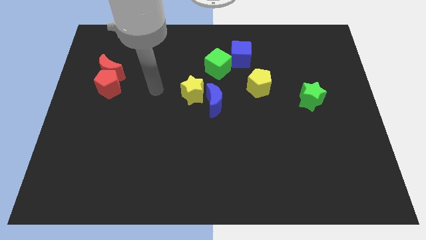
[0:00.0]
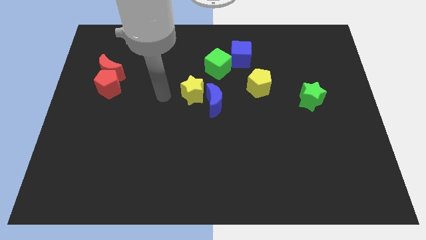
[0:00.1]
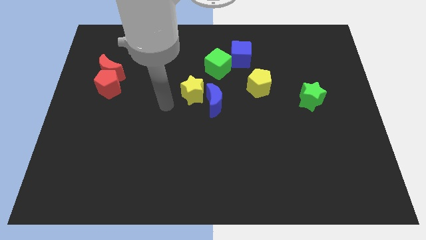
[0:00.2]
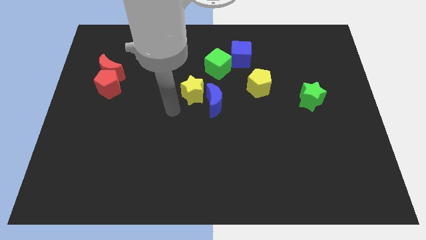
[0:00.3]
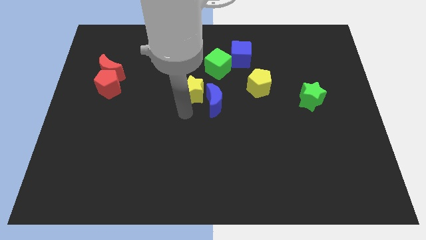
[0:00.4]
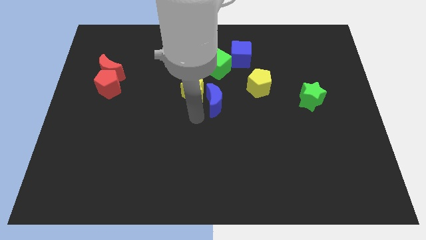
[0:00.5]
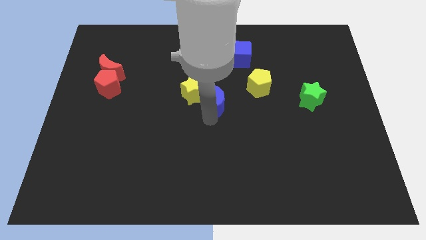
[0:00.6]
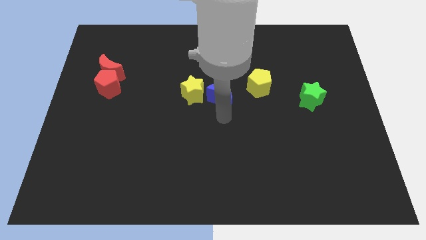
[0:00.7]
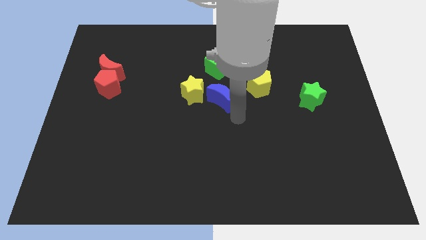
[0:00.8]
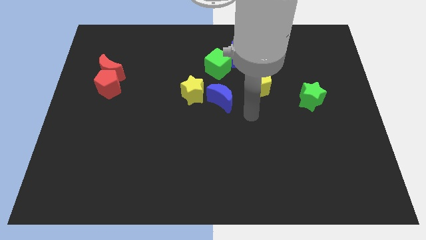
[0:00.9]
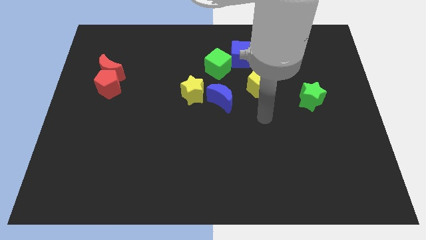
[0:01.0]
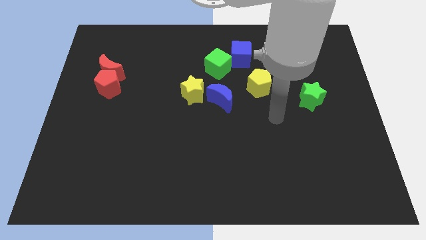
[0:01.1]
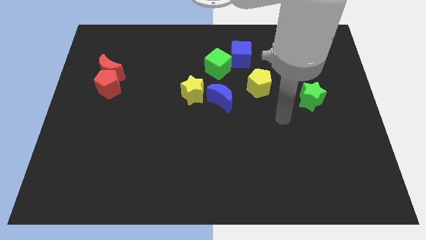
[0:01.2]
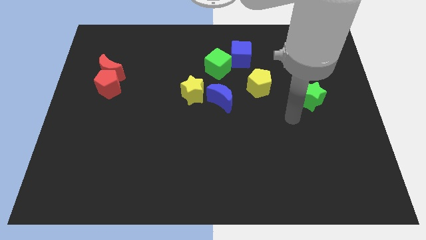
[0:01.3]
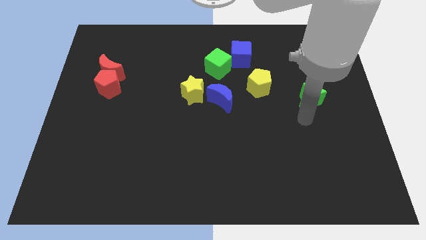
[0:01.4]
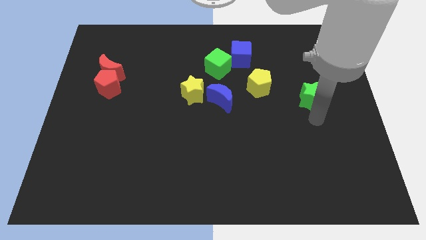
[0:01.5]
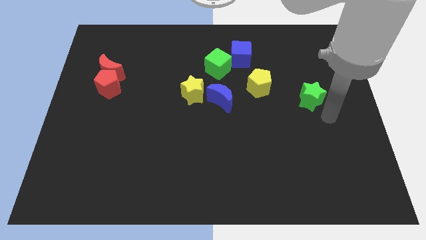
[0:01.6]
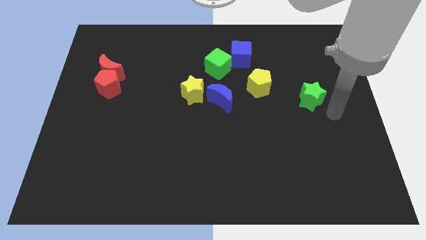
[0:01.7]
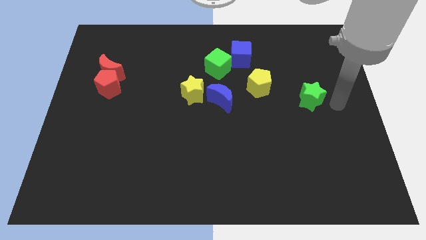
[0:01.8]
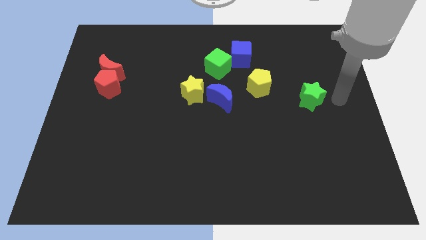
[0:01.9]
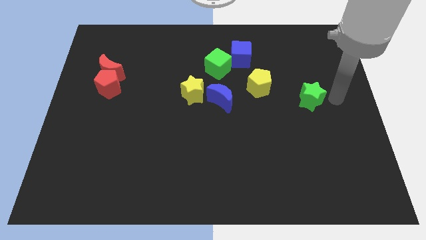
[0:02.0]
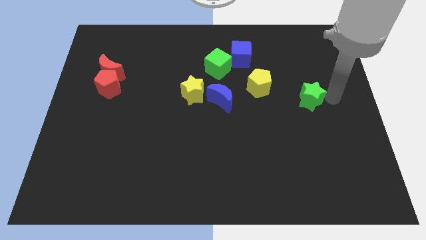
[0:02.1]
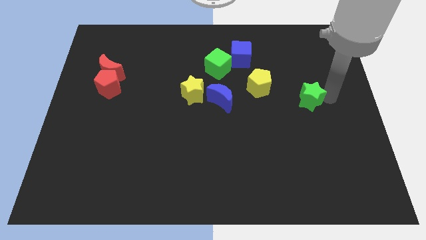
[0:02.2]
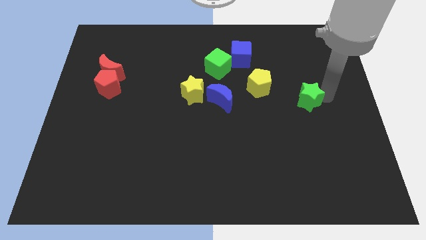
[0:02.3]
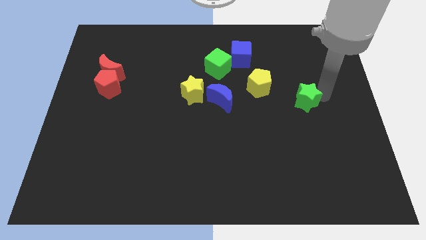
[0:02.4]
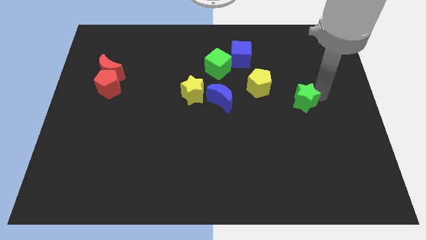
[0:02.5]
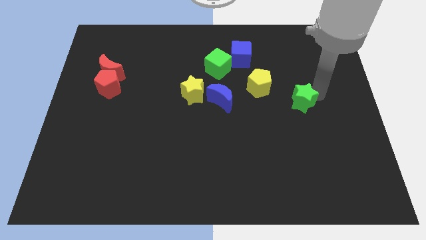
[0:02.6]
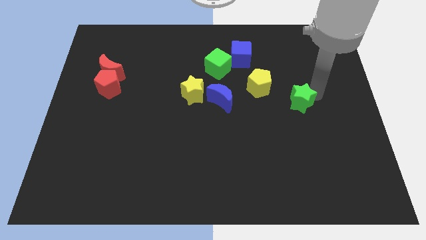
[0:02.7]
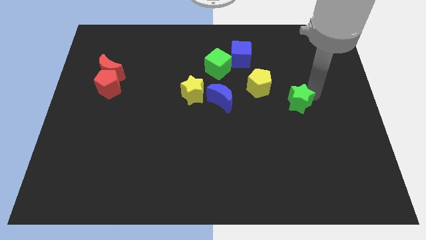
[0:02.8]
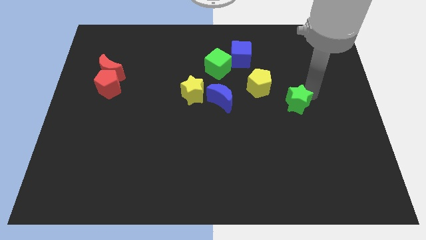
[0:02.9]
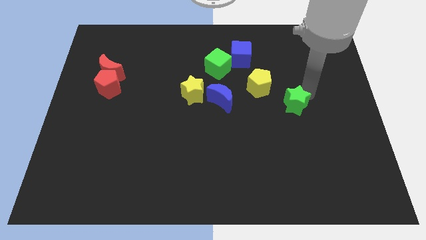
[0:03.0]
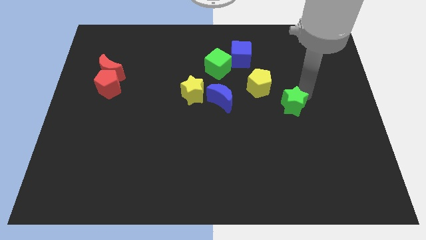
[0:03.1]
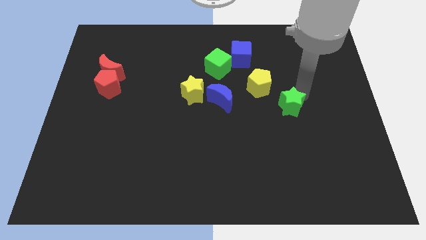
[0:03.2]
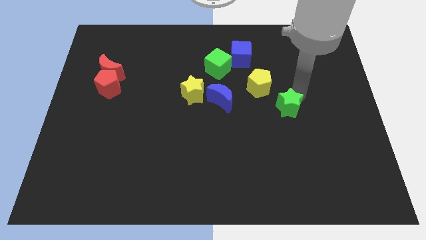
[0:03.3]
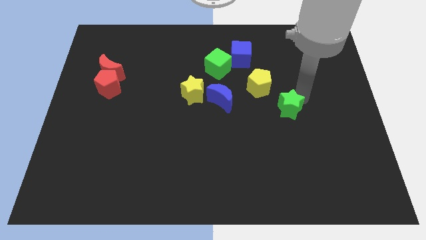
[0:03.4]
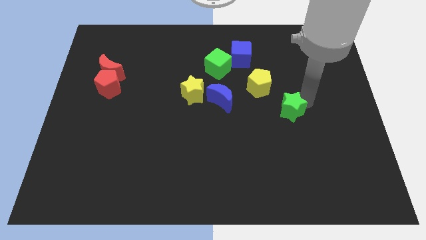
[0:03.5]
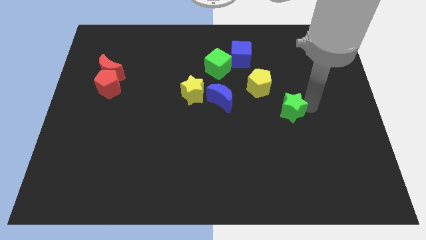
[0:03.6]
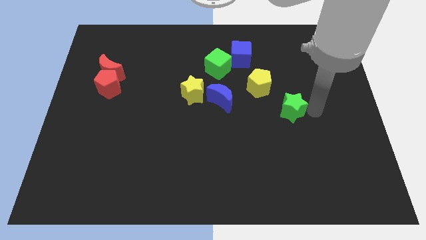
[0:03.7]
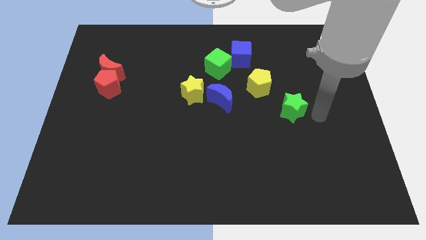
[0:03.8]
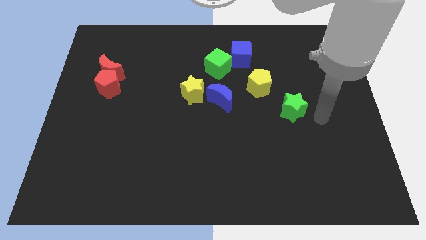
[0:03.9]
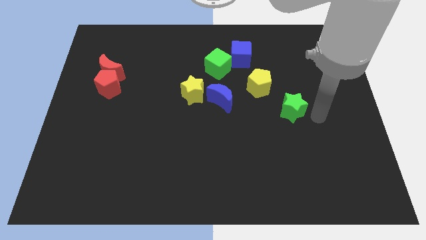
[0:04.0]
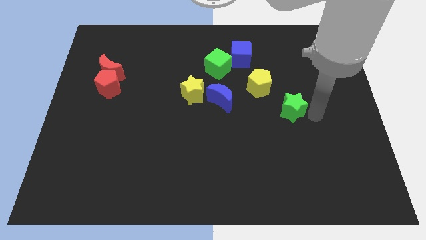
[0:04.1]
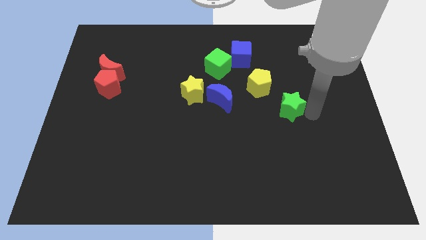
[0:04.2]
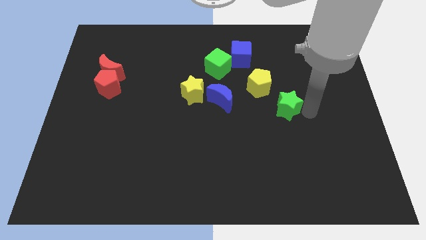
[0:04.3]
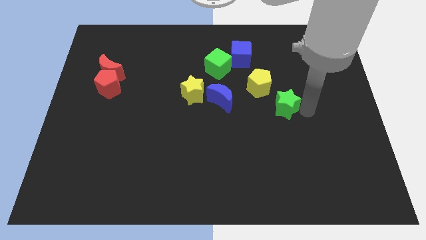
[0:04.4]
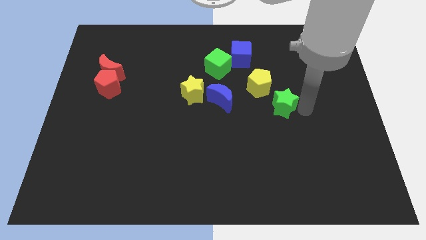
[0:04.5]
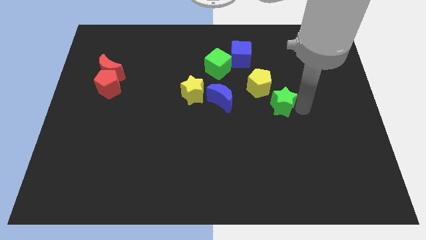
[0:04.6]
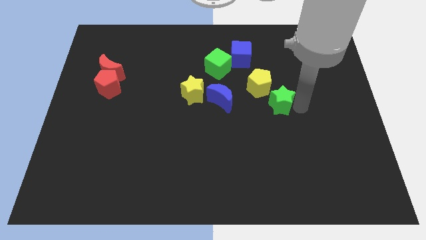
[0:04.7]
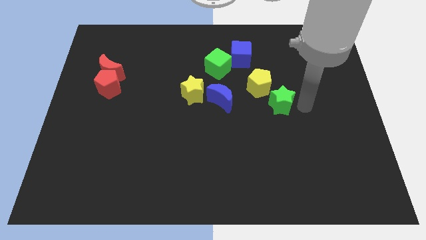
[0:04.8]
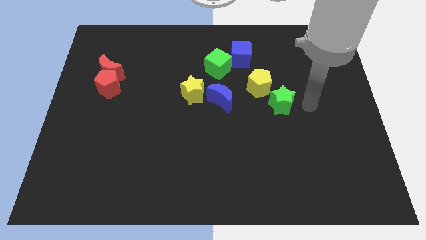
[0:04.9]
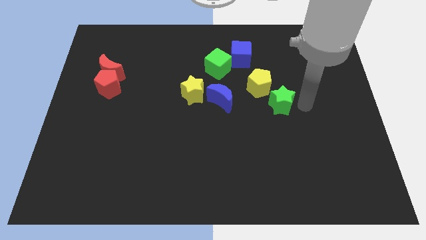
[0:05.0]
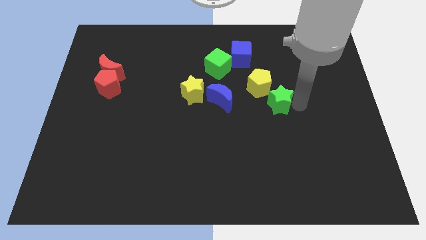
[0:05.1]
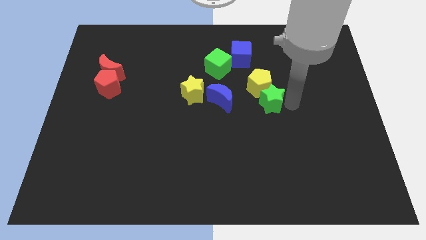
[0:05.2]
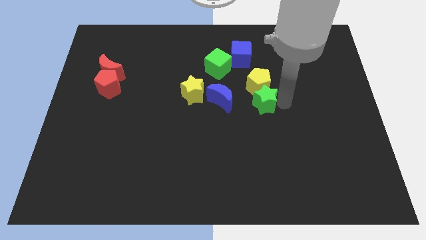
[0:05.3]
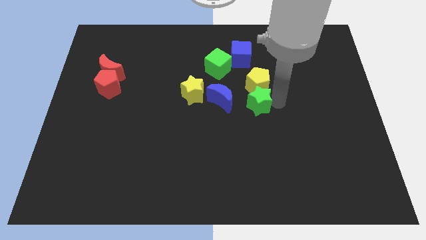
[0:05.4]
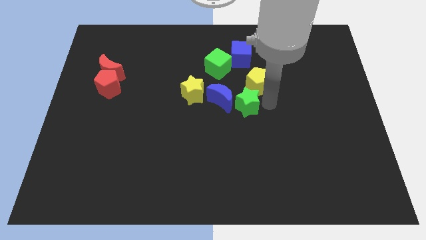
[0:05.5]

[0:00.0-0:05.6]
put the green star to the blue moon

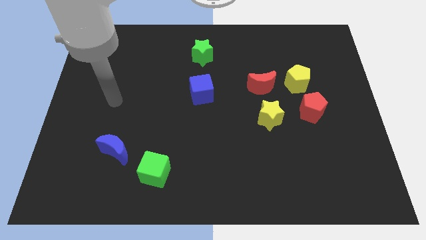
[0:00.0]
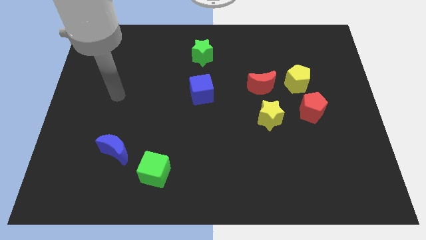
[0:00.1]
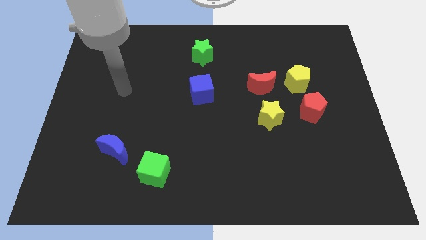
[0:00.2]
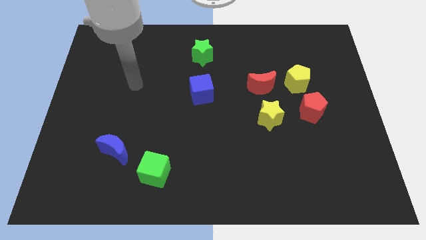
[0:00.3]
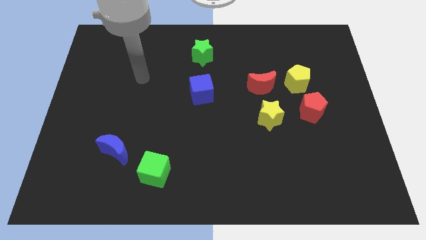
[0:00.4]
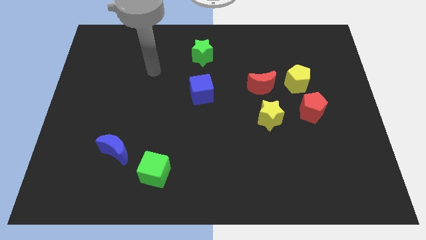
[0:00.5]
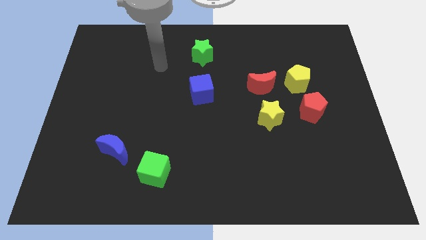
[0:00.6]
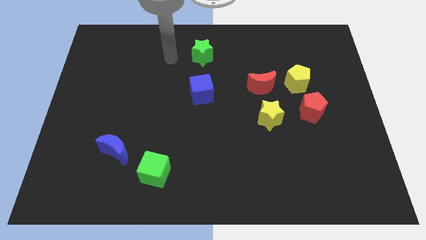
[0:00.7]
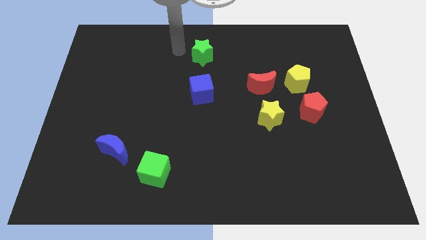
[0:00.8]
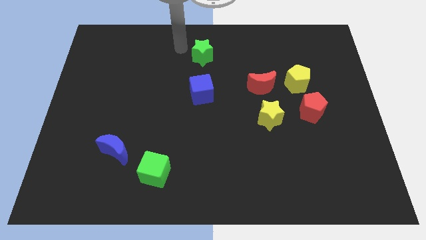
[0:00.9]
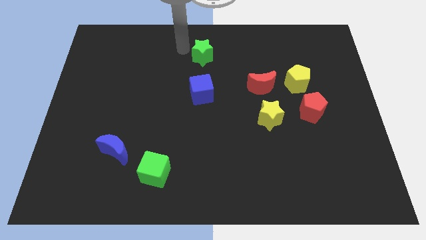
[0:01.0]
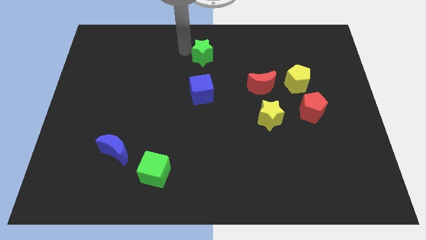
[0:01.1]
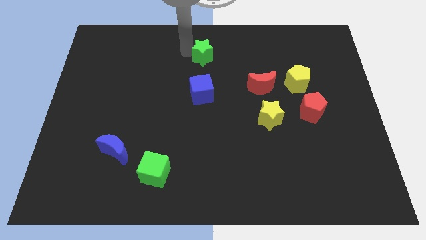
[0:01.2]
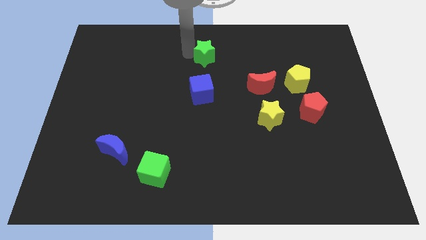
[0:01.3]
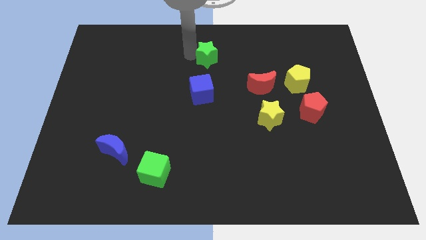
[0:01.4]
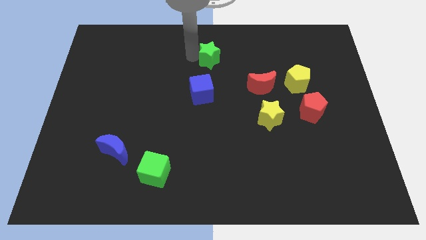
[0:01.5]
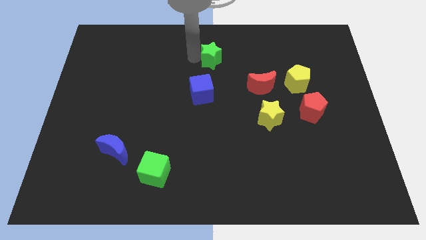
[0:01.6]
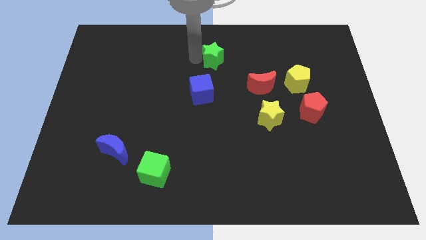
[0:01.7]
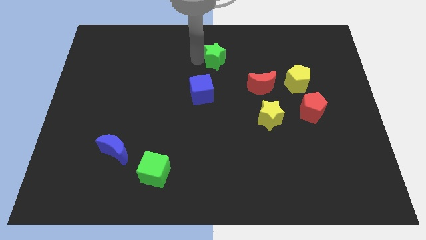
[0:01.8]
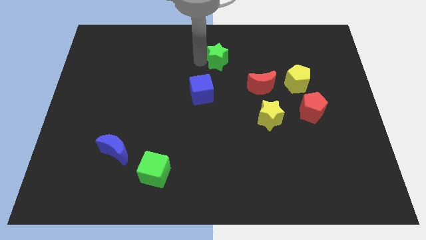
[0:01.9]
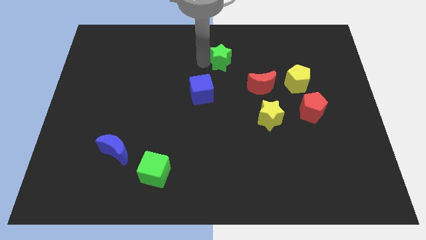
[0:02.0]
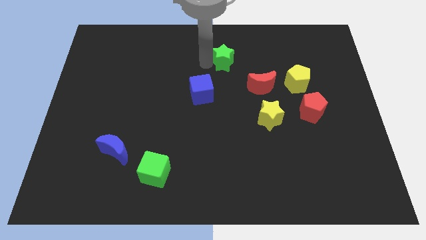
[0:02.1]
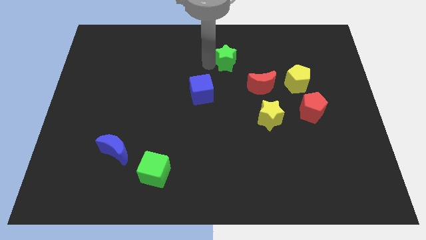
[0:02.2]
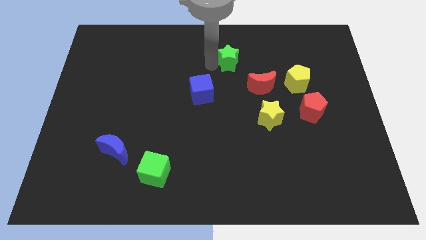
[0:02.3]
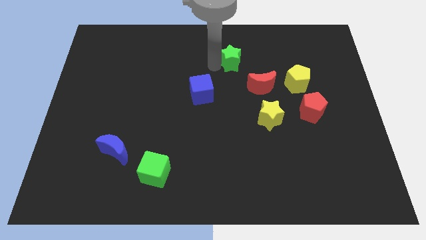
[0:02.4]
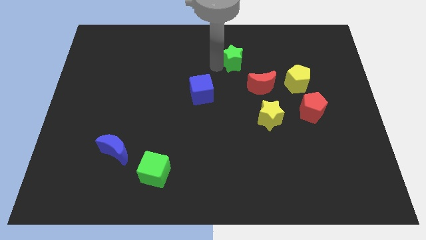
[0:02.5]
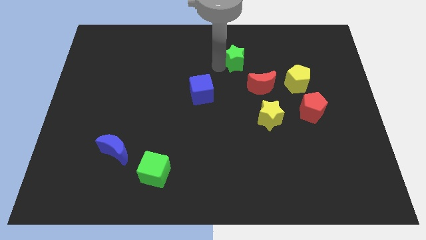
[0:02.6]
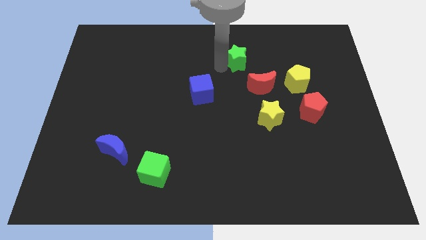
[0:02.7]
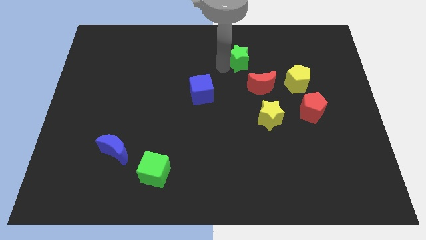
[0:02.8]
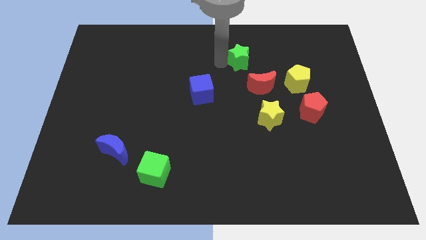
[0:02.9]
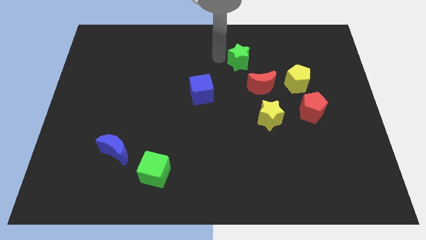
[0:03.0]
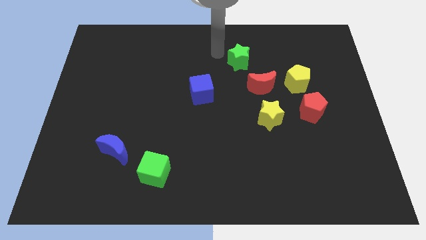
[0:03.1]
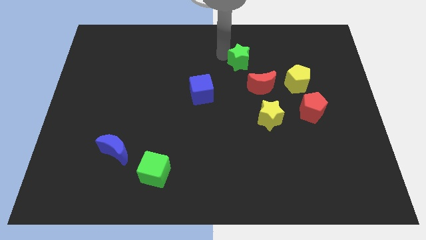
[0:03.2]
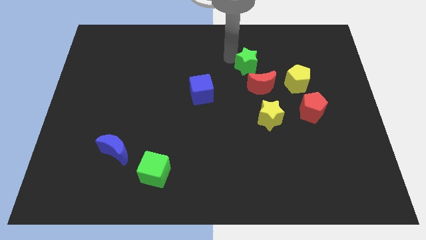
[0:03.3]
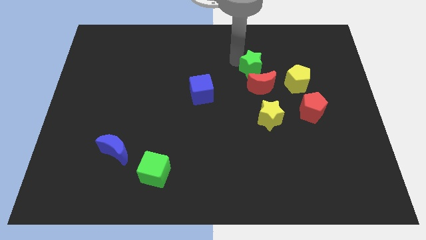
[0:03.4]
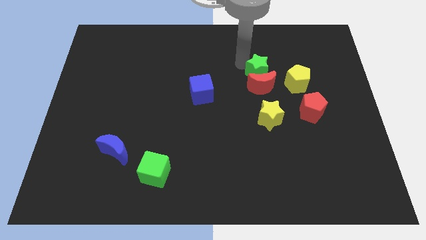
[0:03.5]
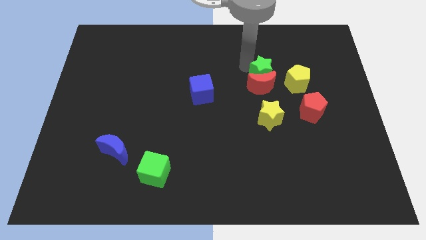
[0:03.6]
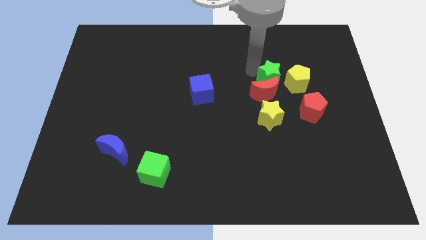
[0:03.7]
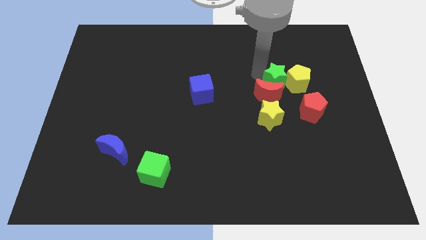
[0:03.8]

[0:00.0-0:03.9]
push the green star towards the yellow pentagon
